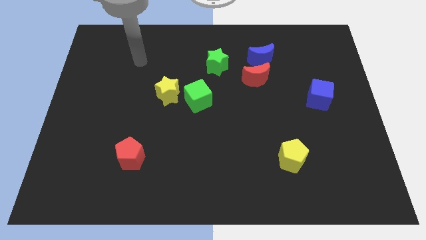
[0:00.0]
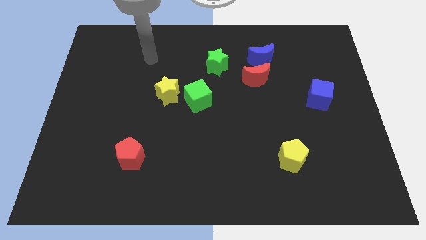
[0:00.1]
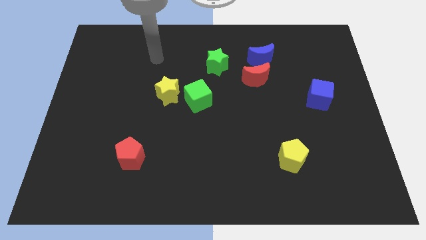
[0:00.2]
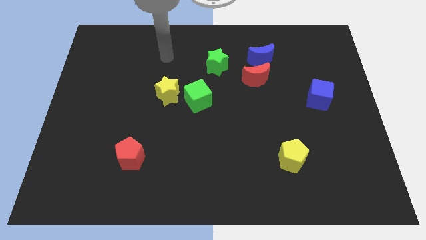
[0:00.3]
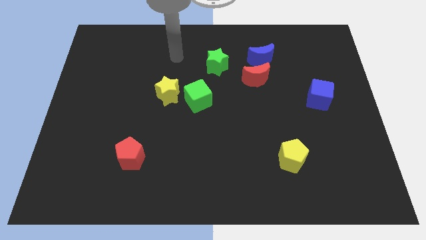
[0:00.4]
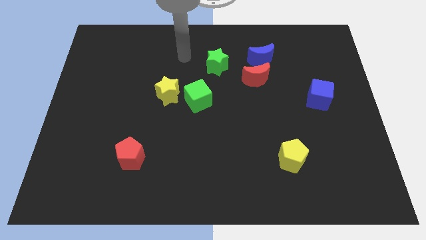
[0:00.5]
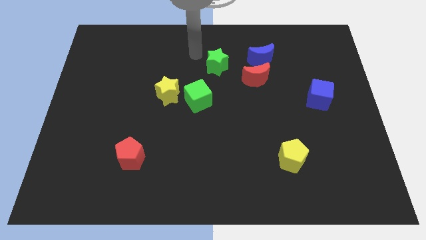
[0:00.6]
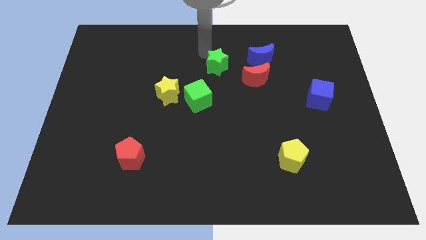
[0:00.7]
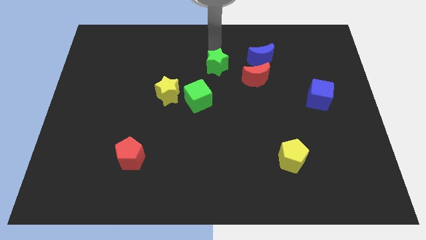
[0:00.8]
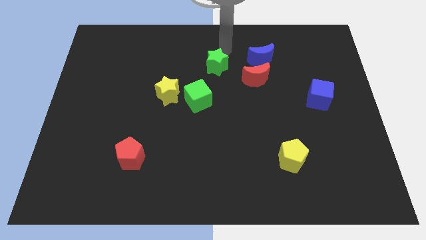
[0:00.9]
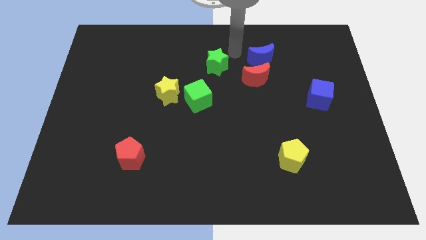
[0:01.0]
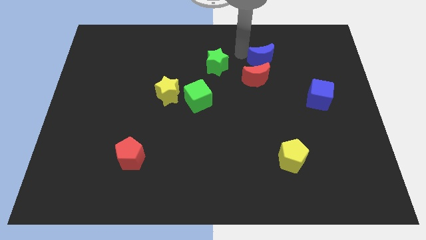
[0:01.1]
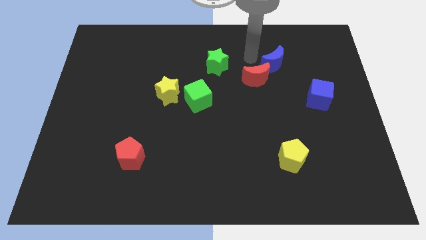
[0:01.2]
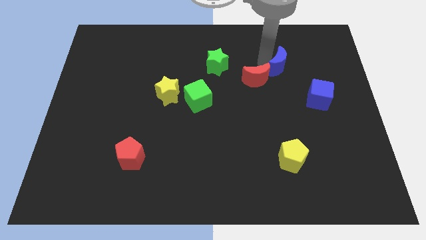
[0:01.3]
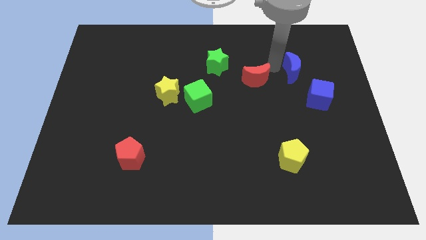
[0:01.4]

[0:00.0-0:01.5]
move the red moon away from the blue moon

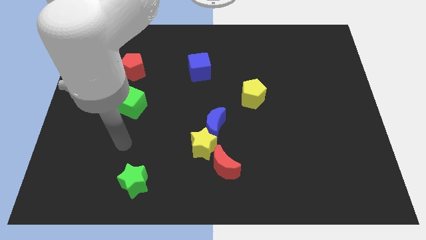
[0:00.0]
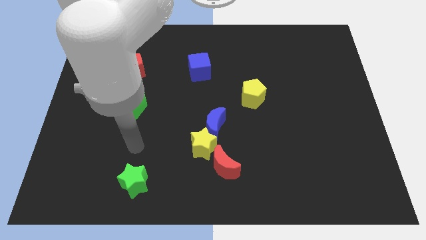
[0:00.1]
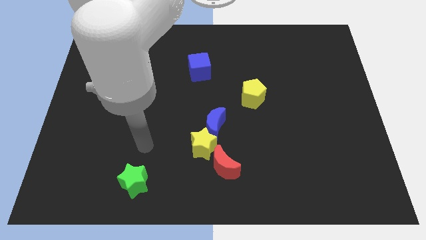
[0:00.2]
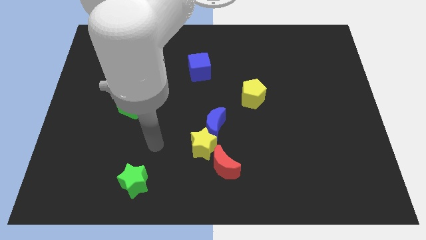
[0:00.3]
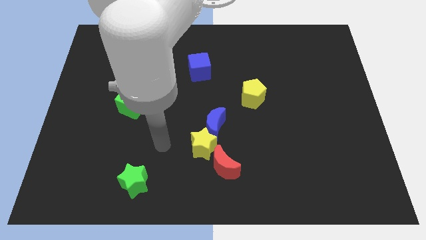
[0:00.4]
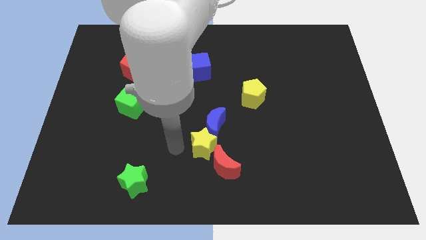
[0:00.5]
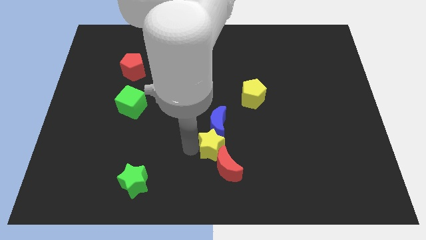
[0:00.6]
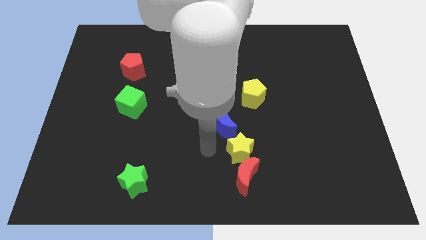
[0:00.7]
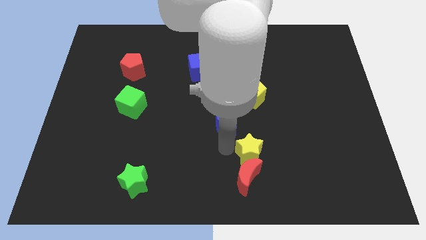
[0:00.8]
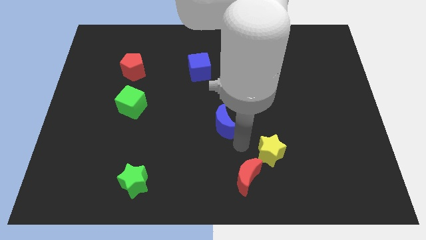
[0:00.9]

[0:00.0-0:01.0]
move the blue moon away from the yellow star

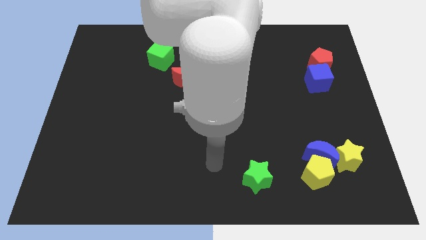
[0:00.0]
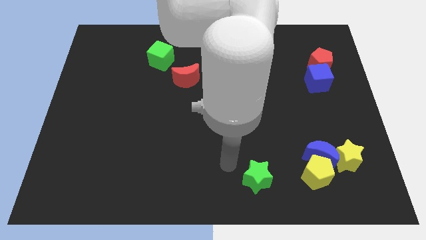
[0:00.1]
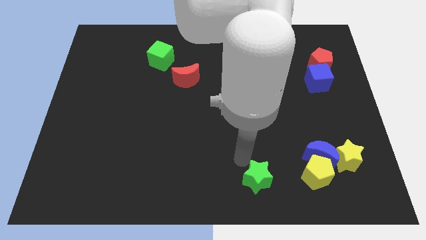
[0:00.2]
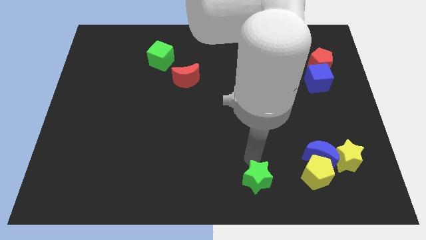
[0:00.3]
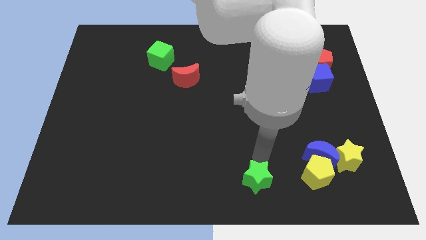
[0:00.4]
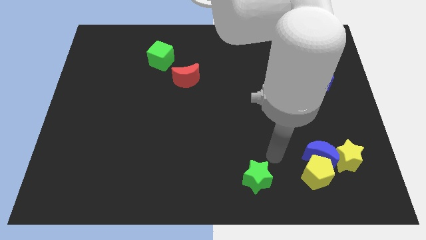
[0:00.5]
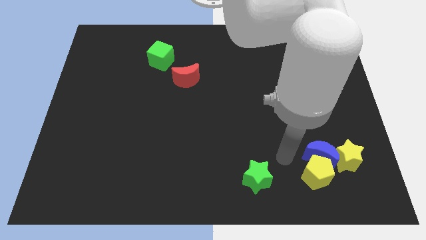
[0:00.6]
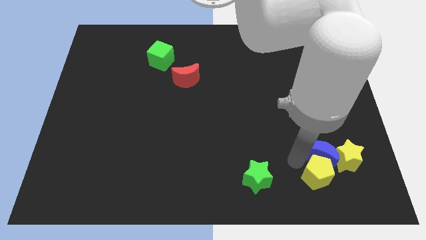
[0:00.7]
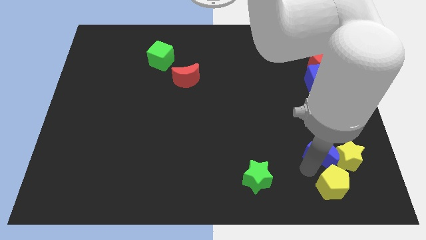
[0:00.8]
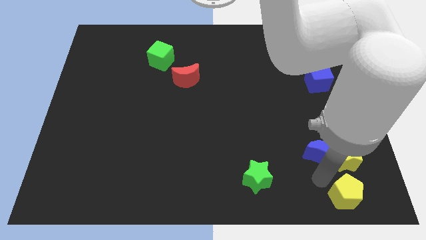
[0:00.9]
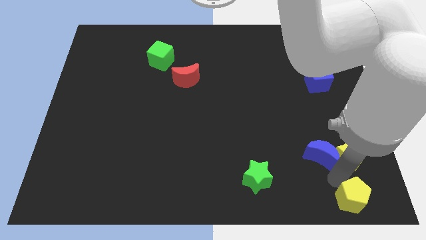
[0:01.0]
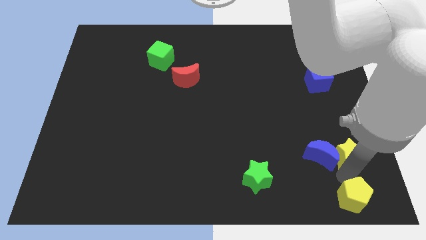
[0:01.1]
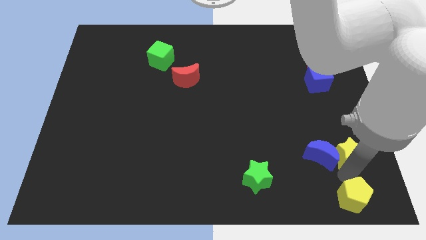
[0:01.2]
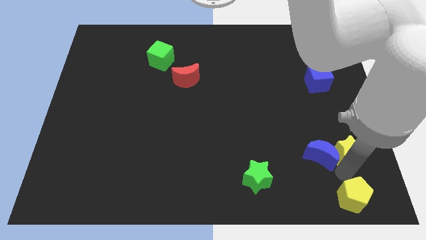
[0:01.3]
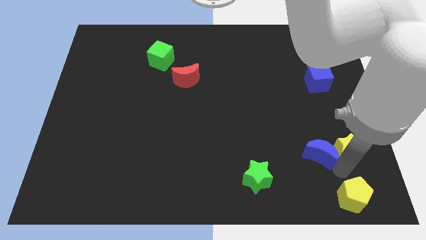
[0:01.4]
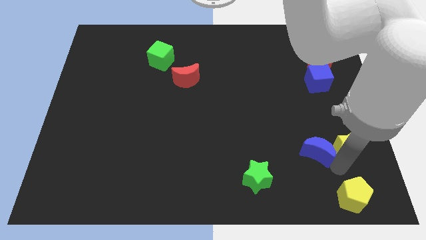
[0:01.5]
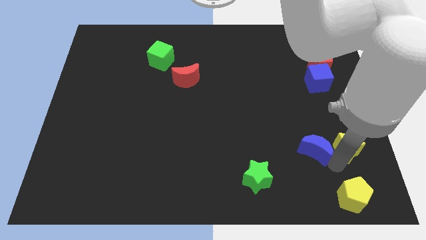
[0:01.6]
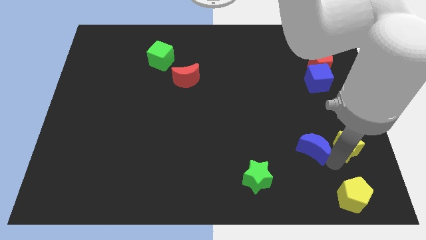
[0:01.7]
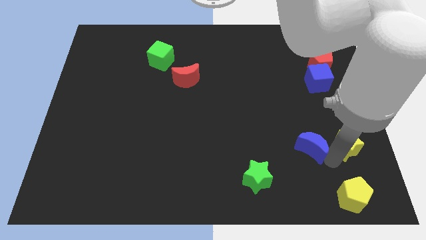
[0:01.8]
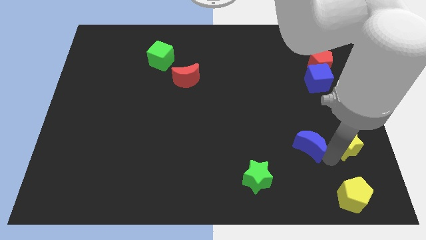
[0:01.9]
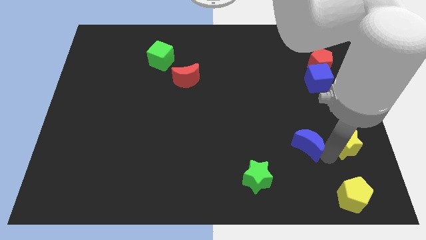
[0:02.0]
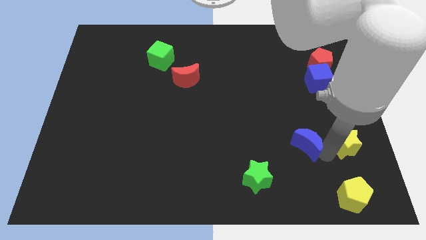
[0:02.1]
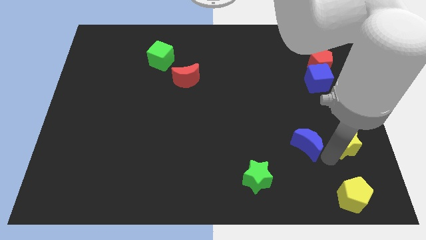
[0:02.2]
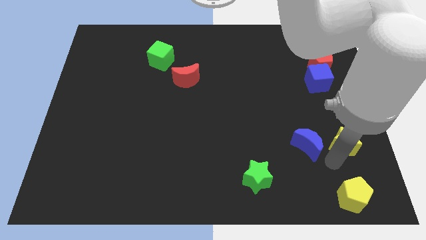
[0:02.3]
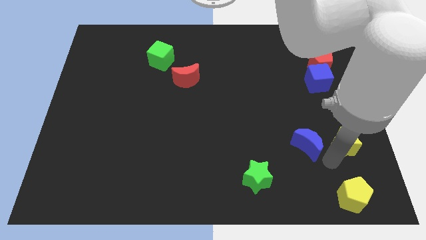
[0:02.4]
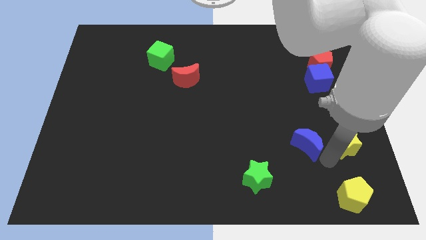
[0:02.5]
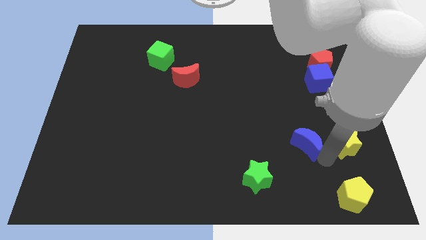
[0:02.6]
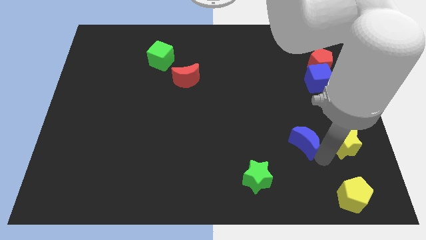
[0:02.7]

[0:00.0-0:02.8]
separate the blue moon from the yellow pentagon and yellow star

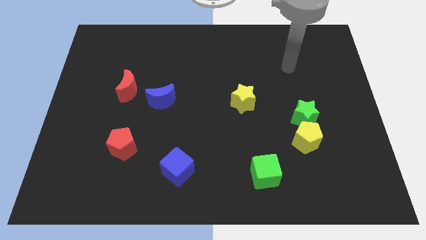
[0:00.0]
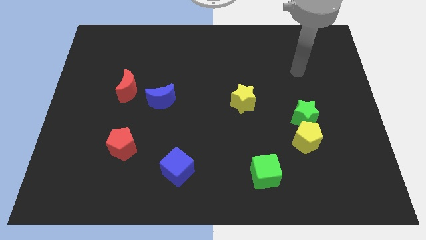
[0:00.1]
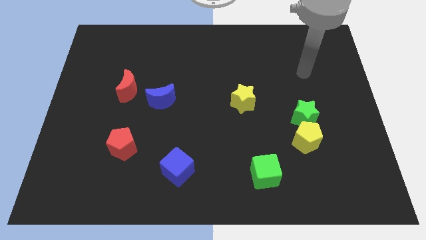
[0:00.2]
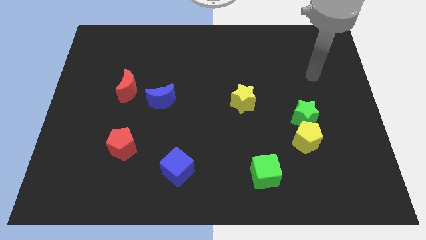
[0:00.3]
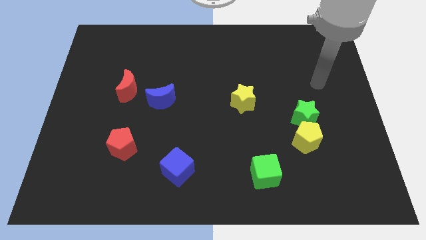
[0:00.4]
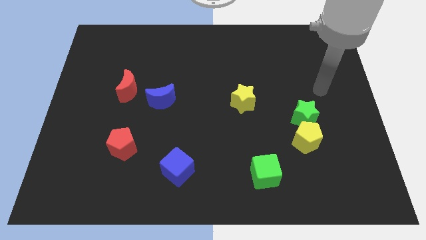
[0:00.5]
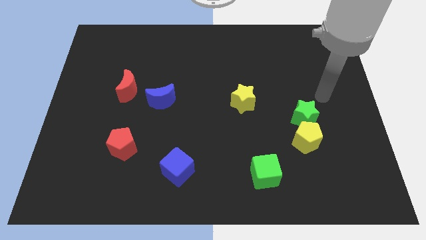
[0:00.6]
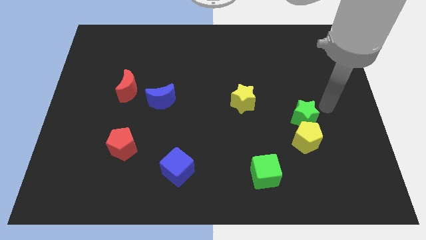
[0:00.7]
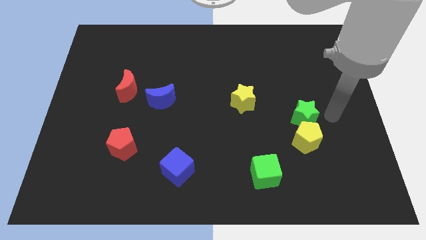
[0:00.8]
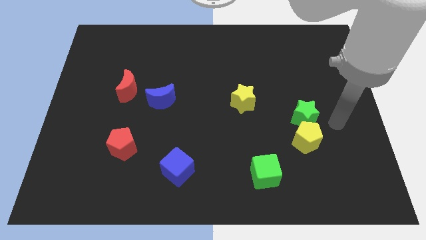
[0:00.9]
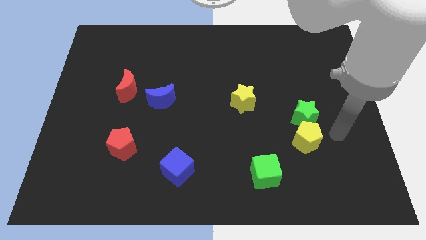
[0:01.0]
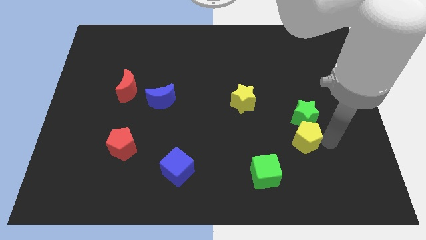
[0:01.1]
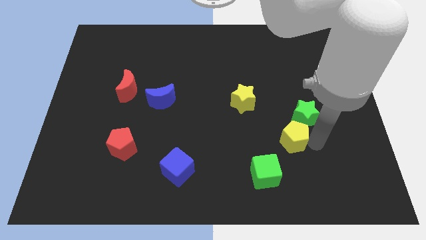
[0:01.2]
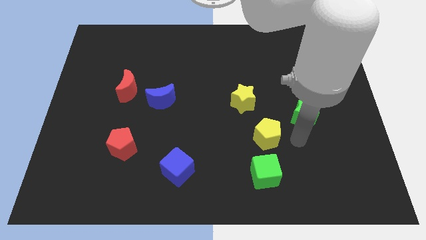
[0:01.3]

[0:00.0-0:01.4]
separate the green star from the yellow pentagon

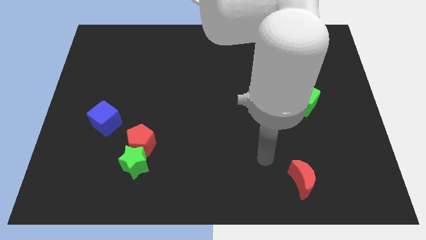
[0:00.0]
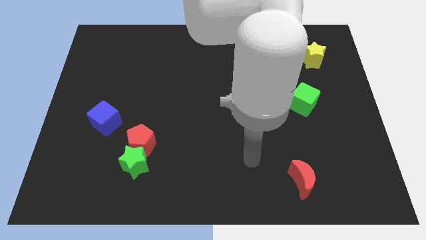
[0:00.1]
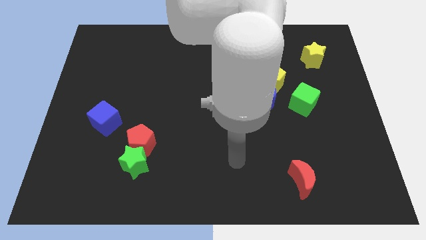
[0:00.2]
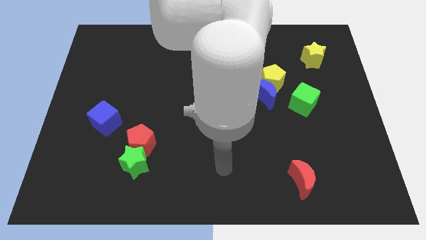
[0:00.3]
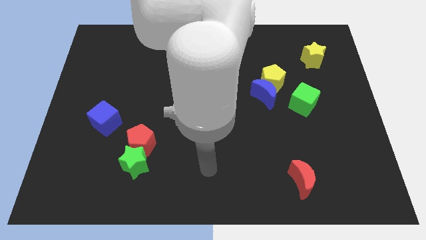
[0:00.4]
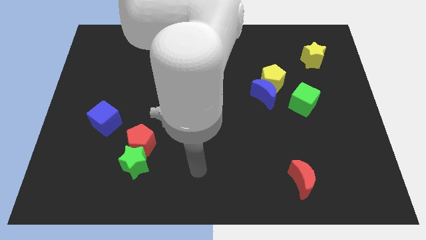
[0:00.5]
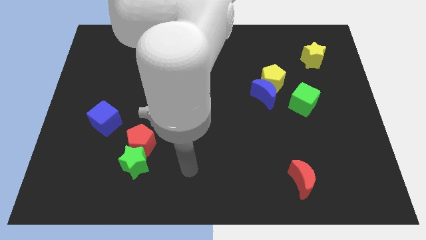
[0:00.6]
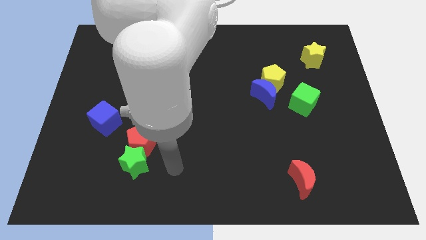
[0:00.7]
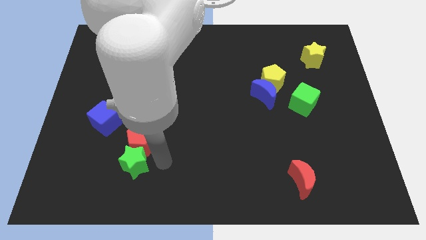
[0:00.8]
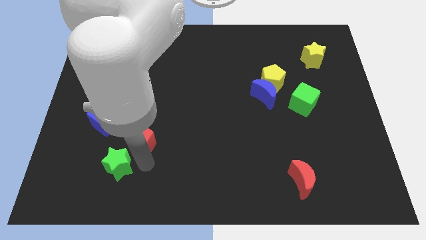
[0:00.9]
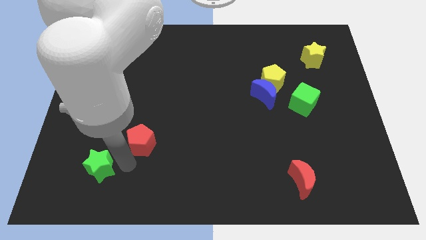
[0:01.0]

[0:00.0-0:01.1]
pull the red pentagon apart from the green star

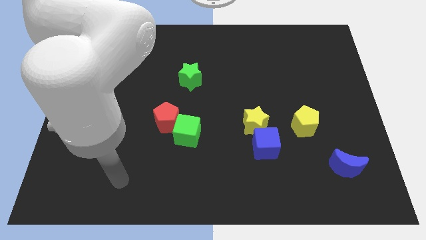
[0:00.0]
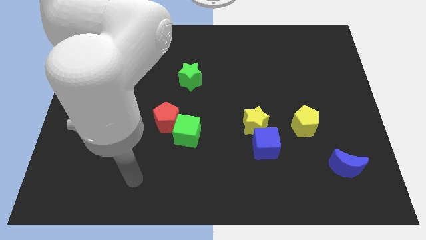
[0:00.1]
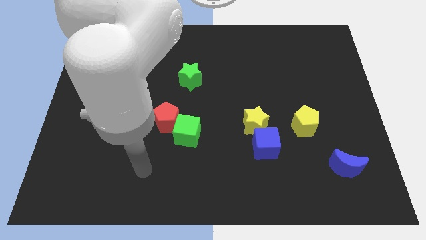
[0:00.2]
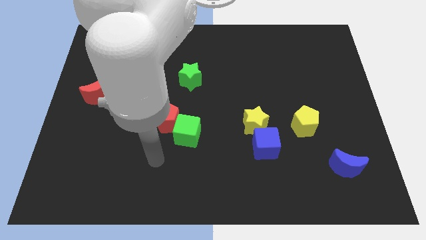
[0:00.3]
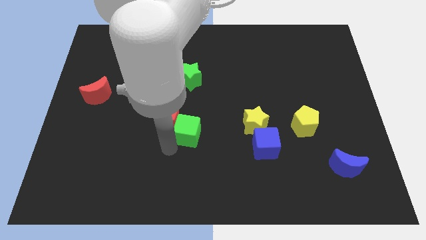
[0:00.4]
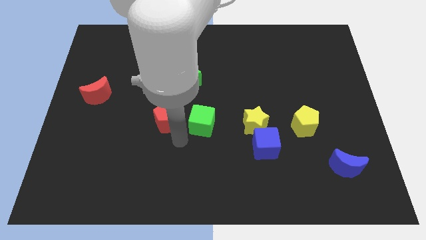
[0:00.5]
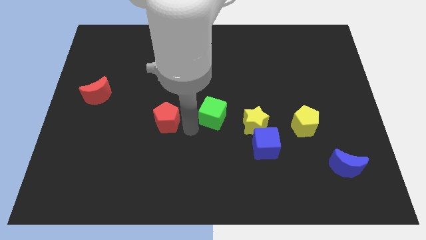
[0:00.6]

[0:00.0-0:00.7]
pull the red pentagon apart from the green cube

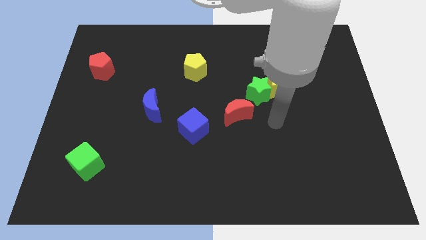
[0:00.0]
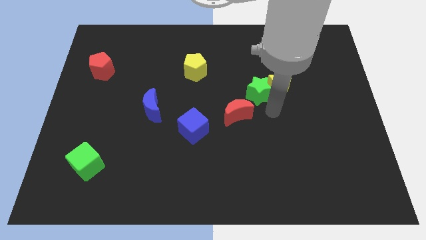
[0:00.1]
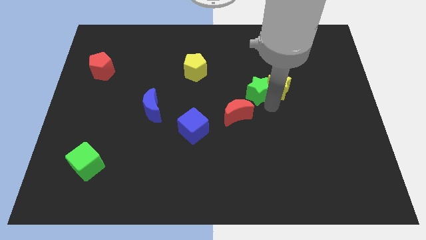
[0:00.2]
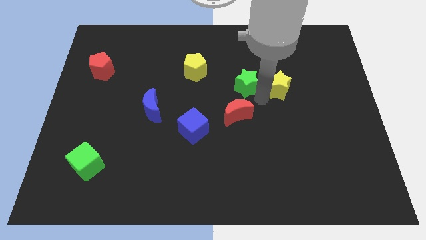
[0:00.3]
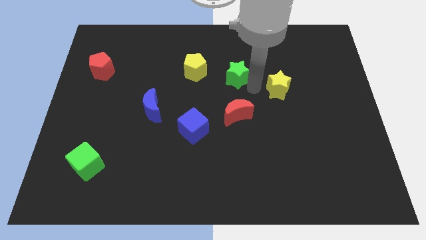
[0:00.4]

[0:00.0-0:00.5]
move the yellow star away from the green star

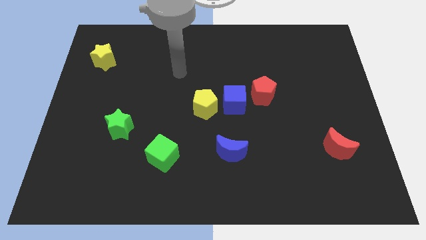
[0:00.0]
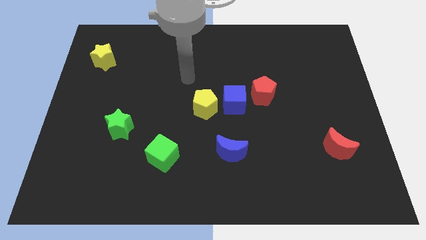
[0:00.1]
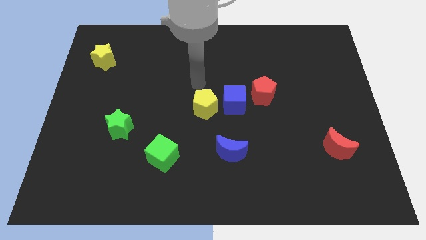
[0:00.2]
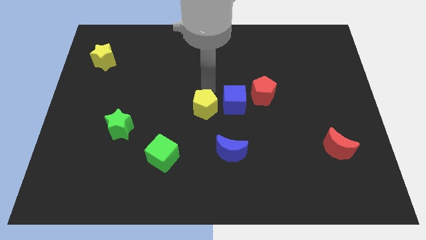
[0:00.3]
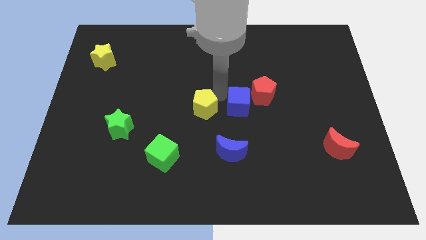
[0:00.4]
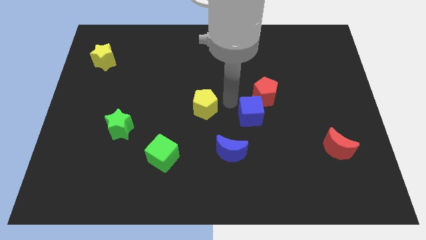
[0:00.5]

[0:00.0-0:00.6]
pull the yellow pentagon apart from the blue cube
